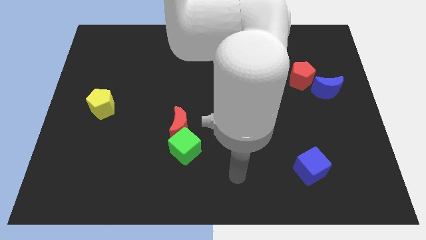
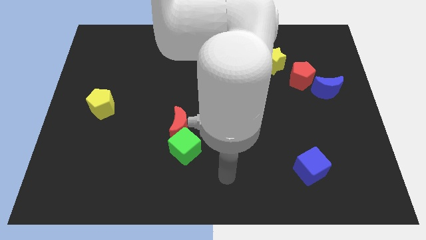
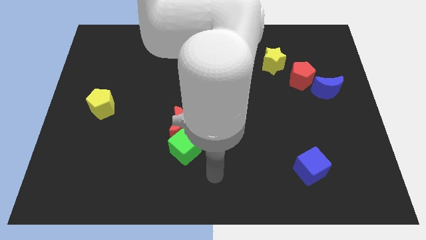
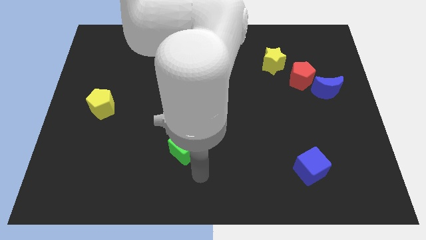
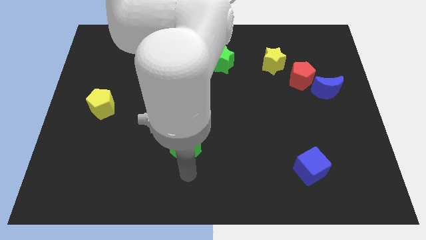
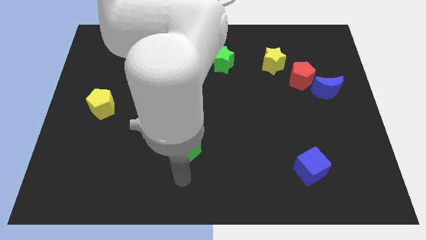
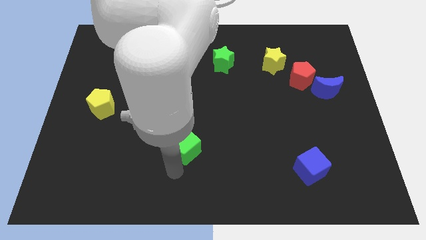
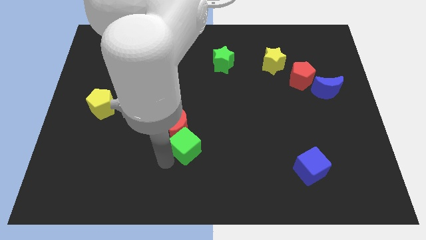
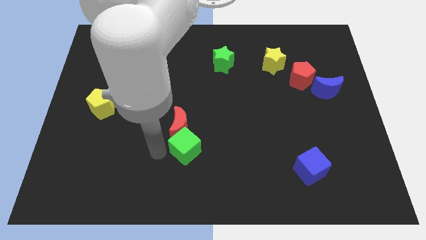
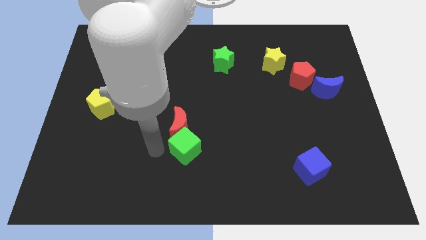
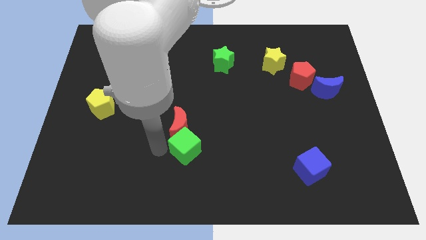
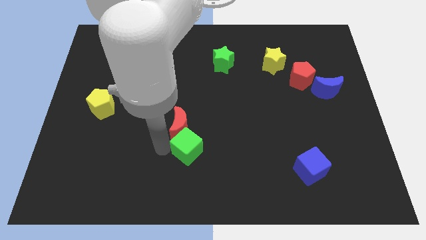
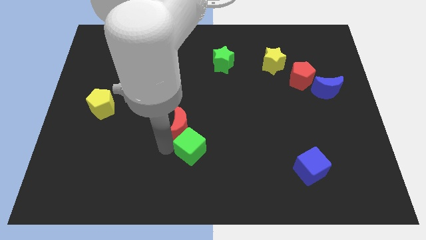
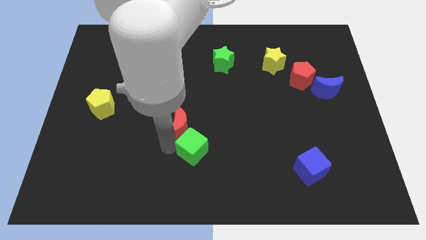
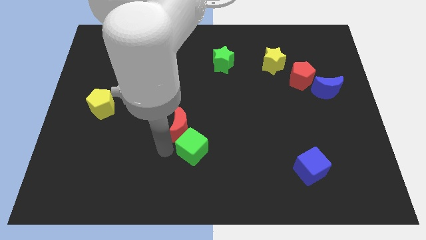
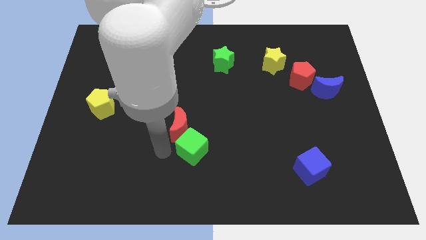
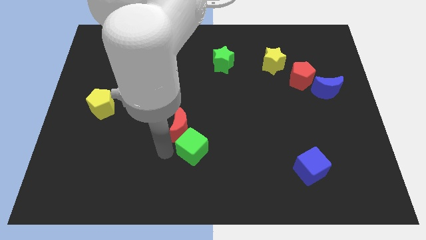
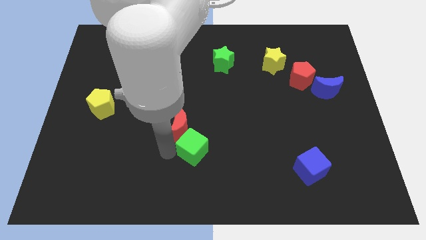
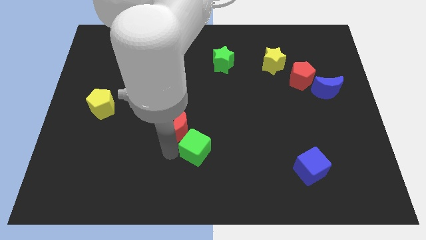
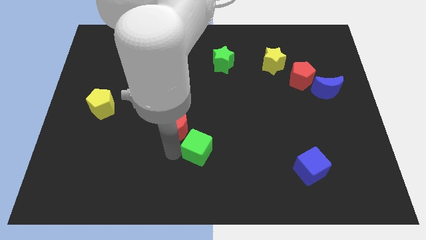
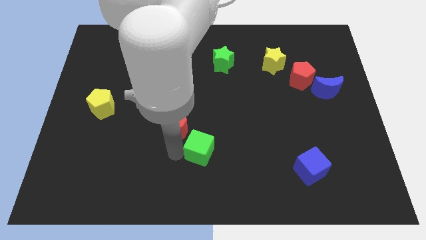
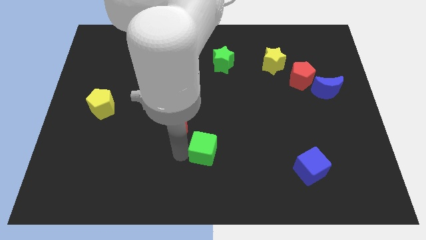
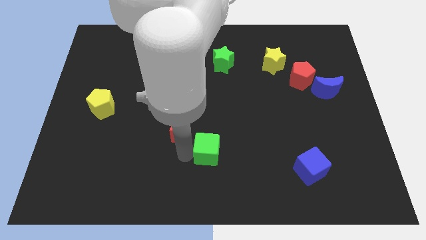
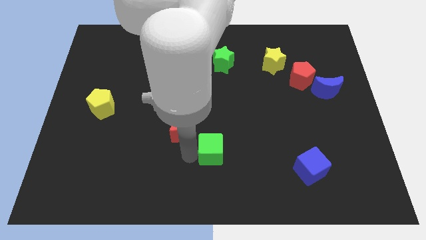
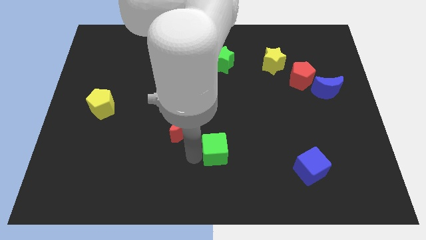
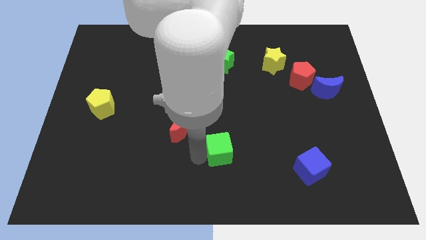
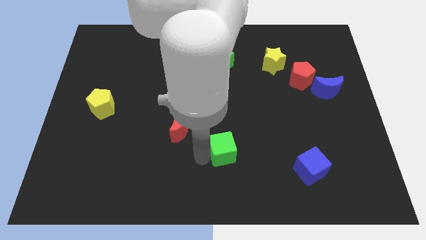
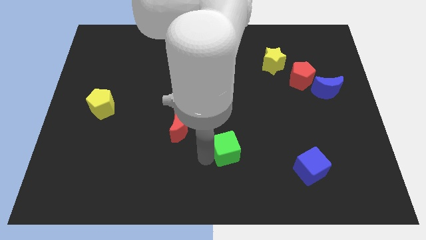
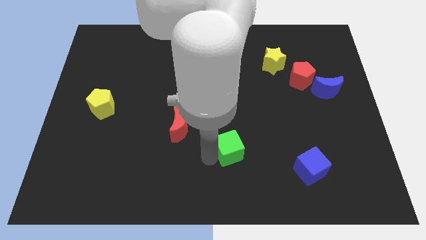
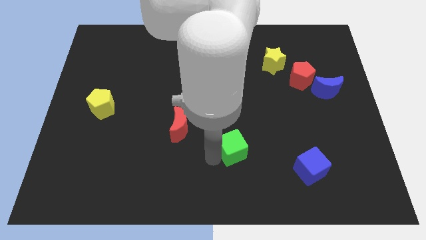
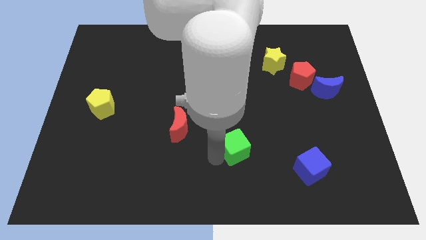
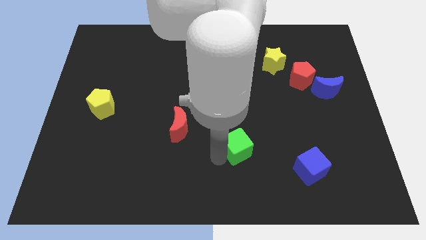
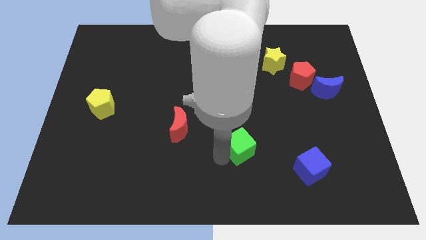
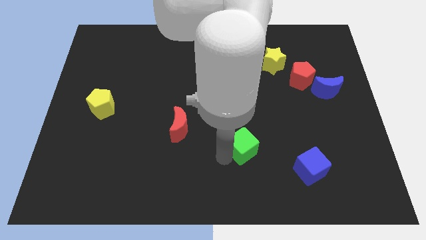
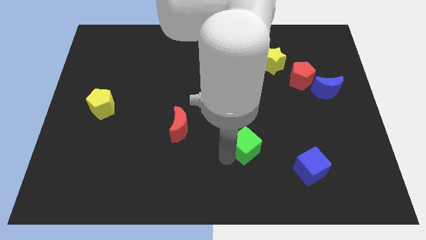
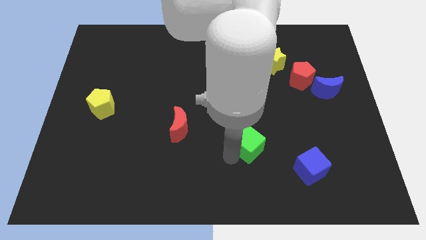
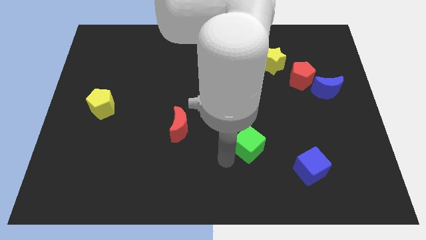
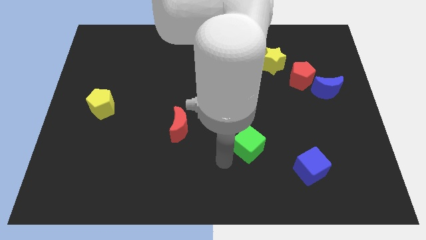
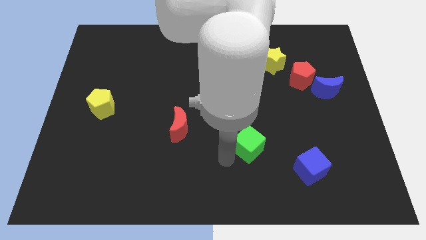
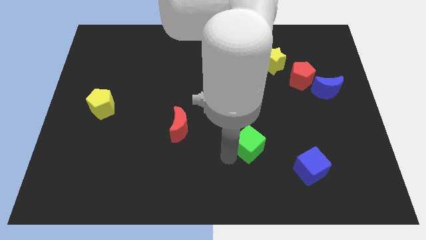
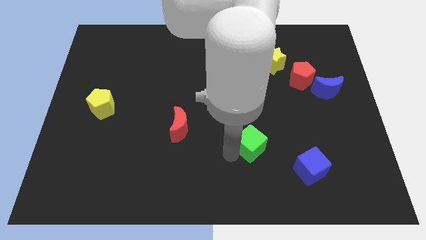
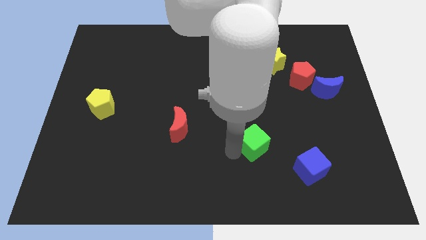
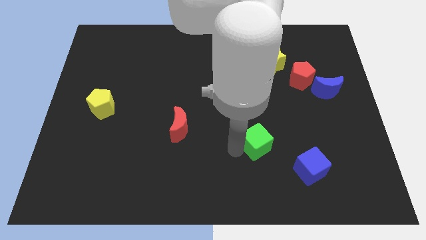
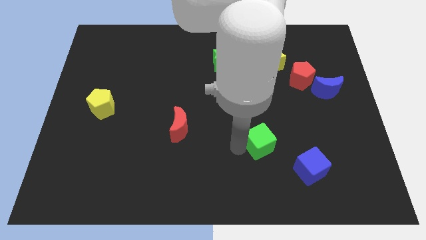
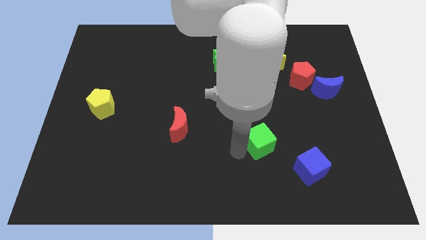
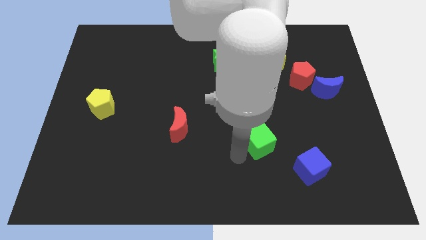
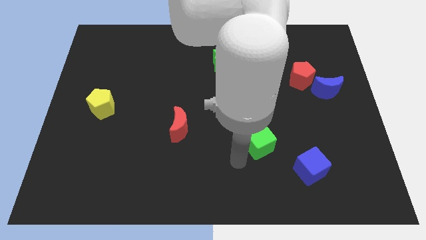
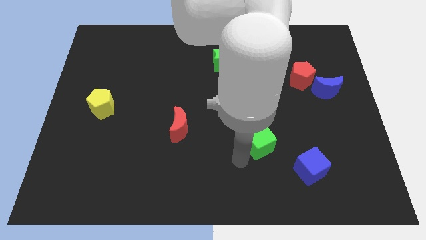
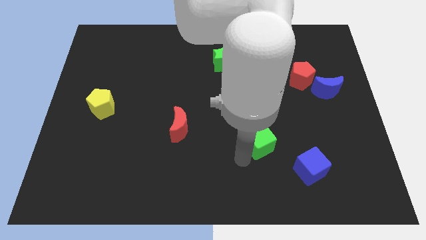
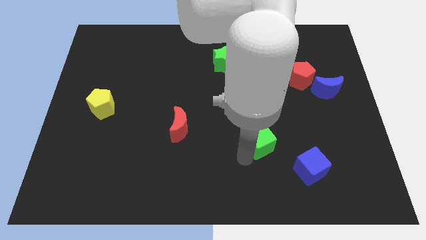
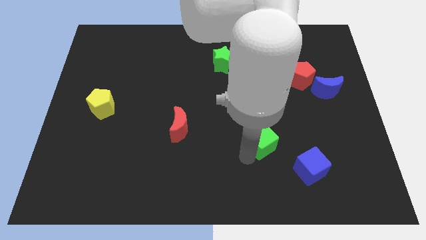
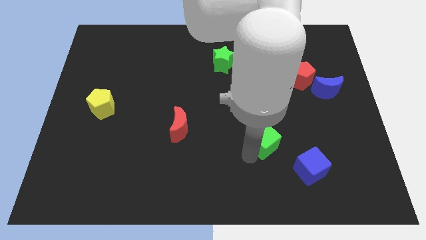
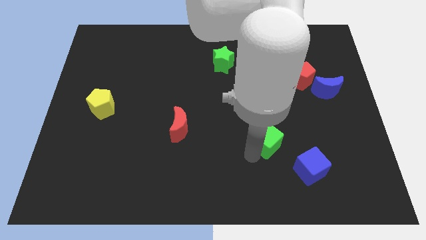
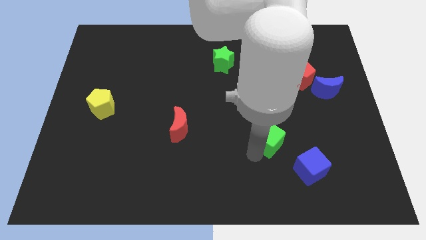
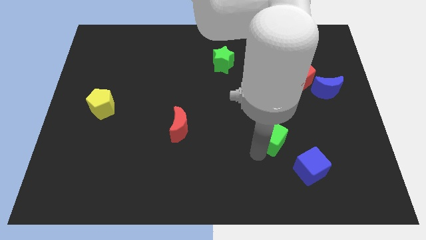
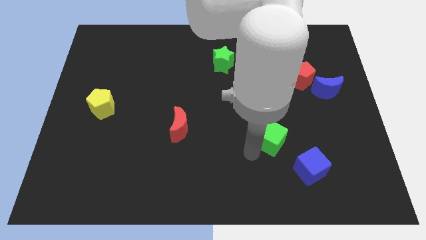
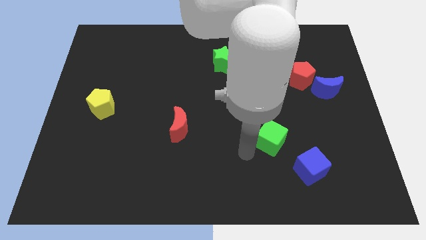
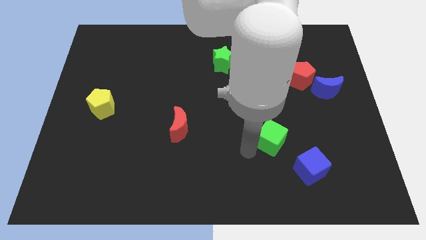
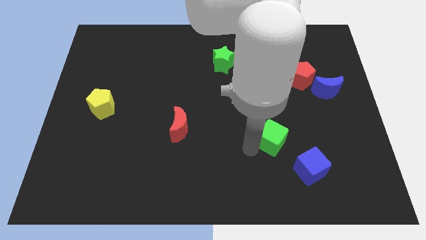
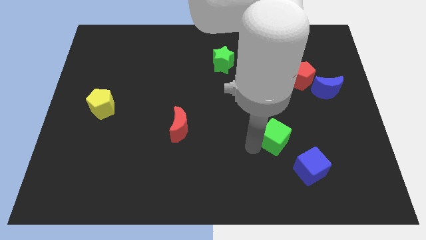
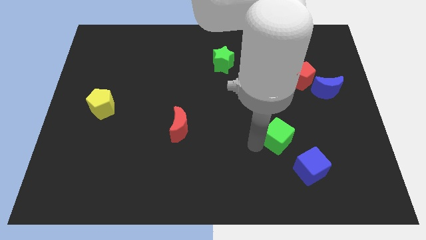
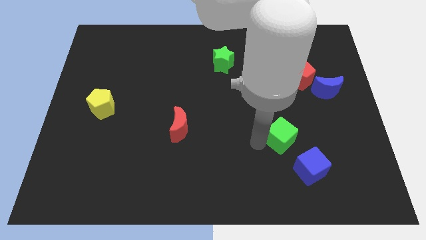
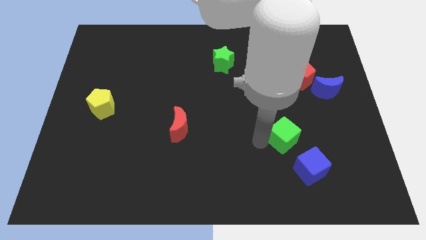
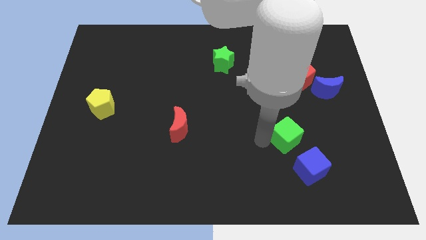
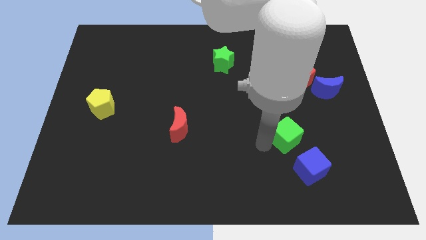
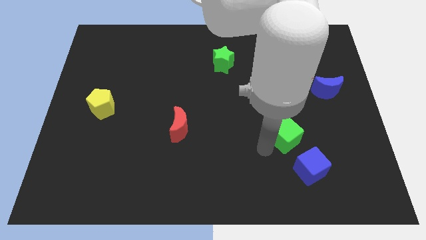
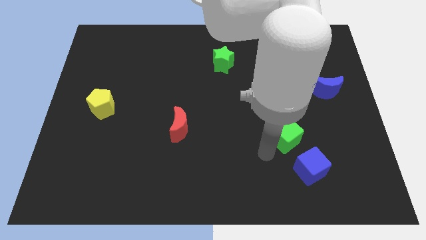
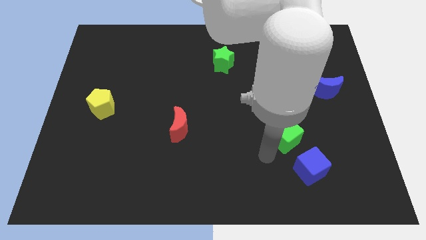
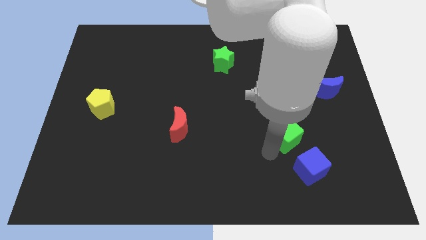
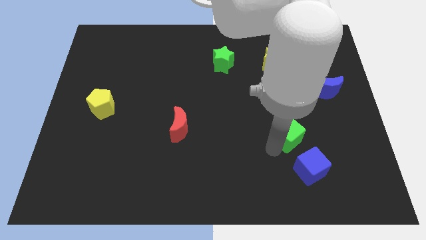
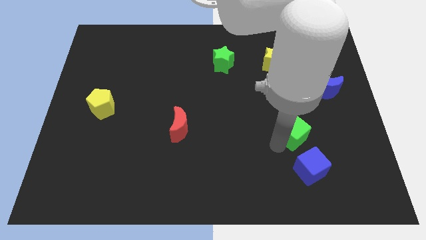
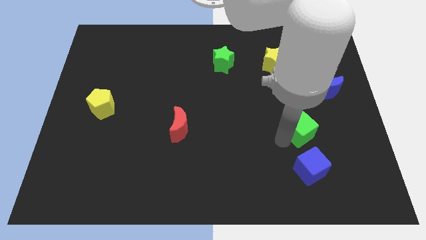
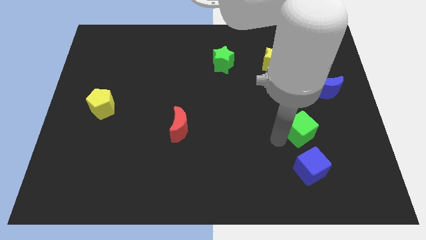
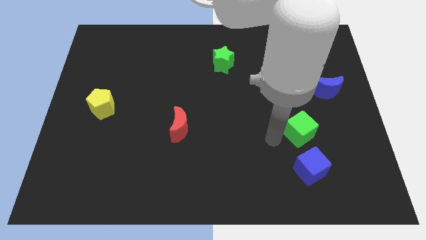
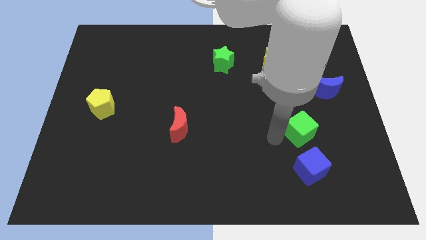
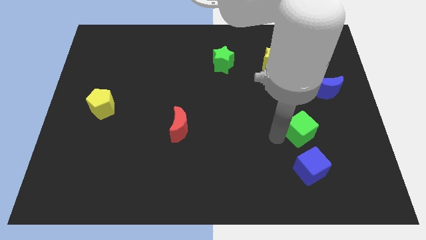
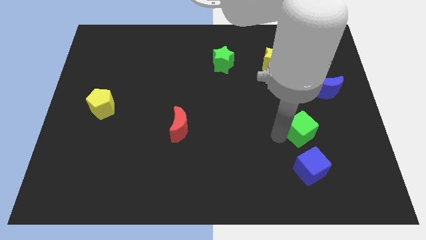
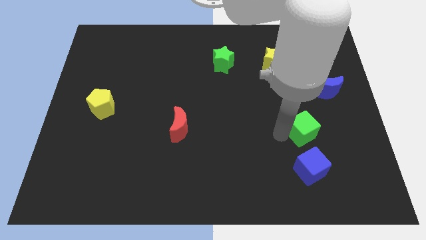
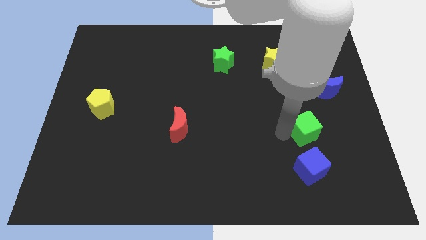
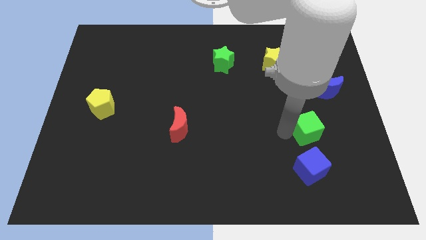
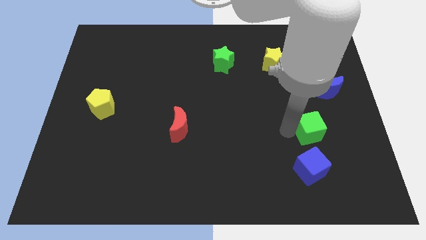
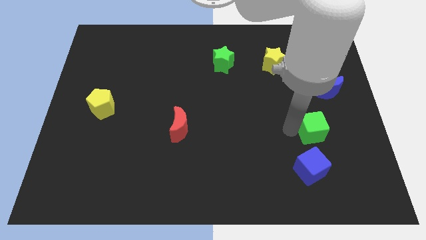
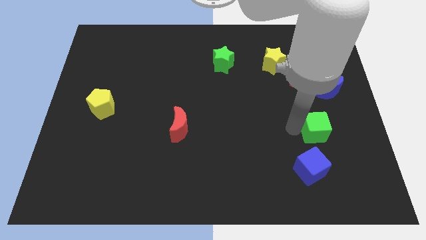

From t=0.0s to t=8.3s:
put the green cube below the blue moon
